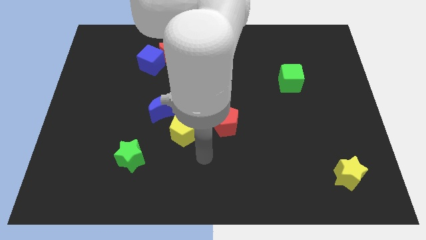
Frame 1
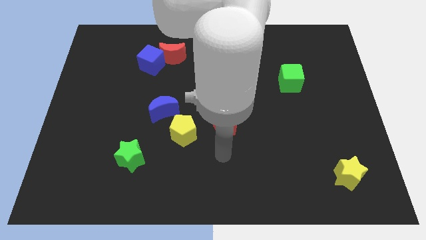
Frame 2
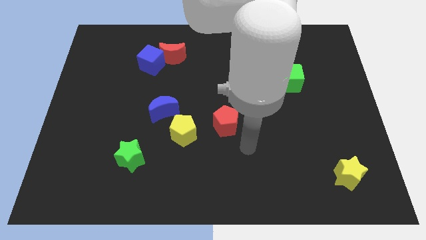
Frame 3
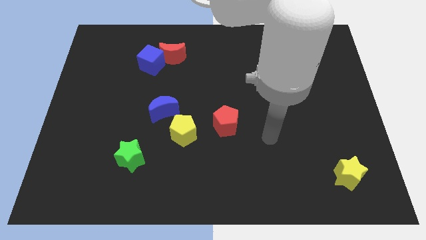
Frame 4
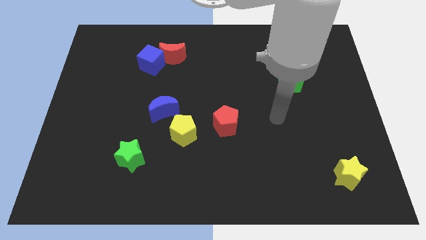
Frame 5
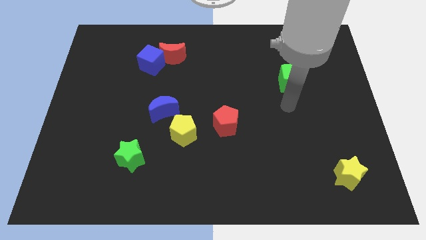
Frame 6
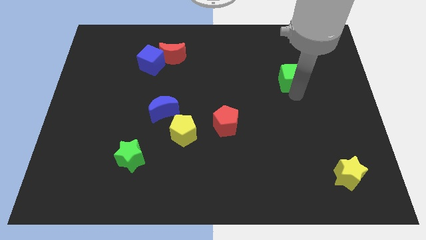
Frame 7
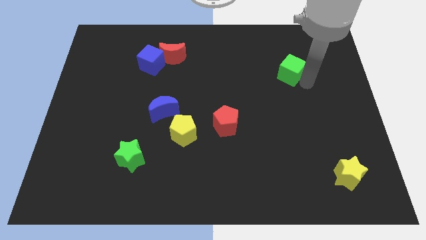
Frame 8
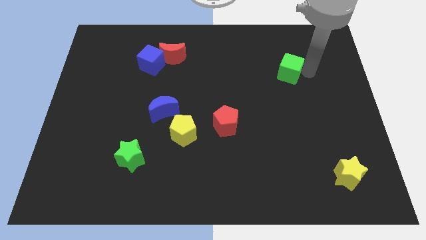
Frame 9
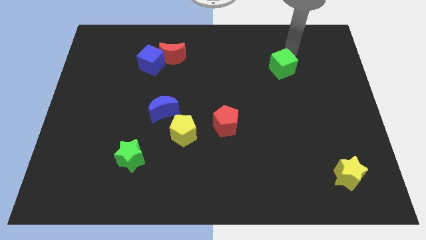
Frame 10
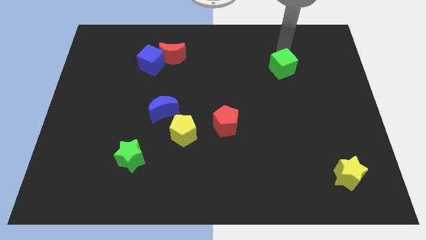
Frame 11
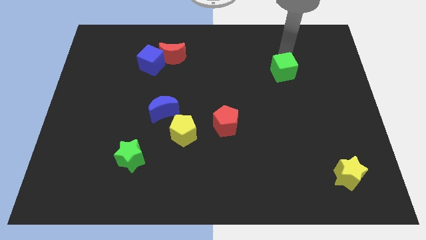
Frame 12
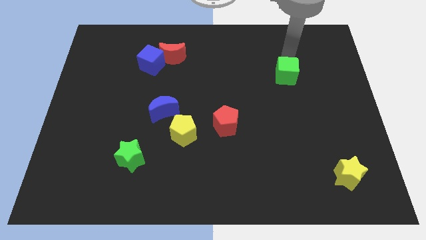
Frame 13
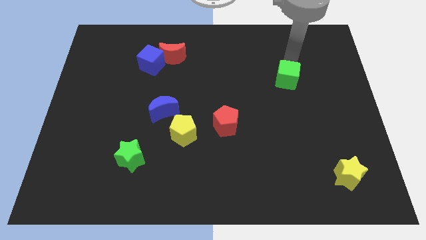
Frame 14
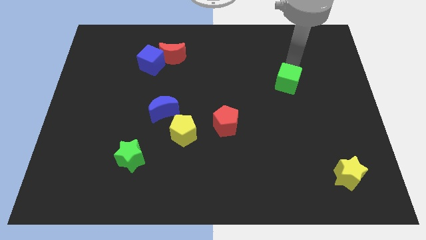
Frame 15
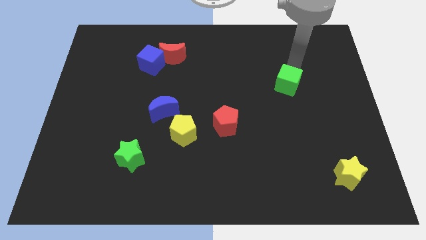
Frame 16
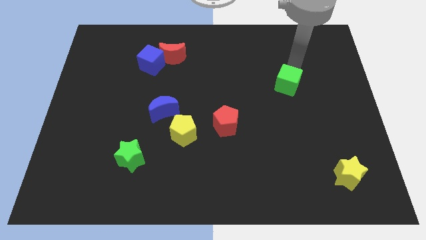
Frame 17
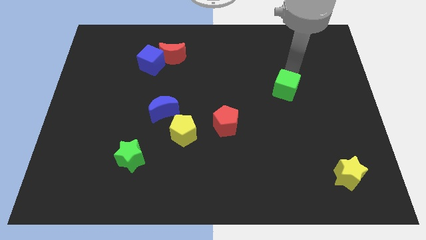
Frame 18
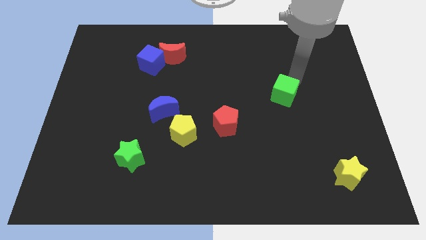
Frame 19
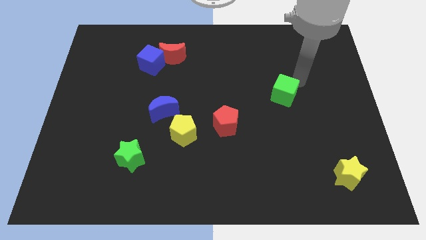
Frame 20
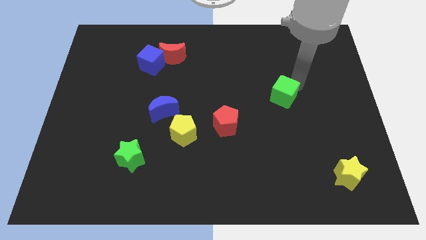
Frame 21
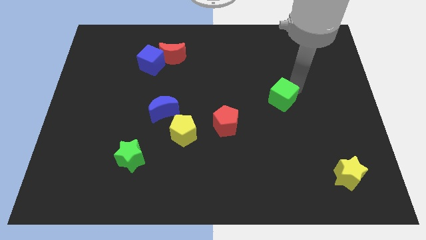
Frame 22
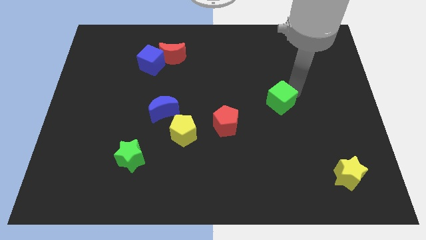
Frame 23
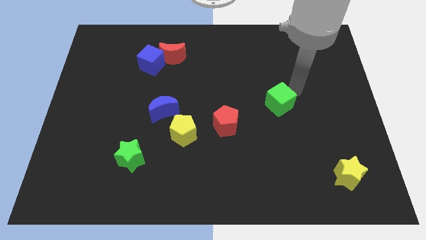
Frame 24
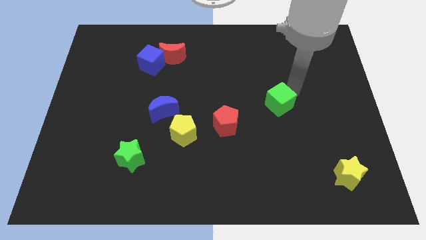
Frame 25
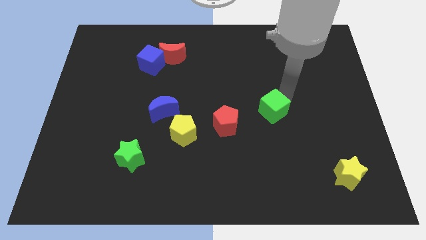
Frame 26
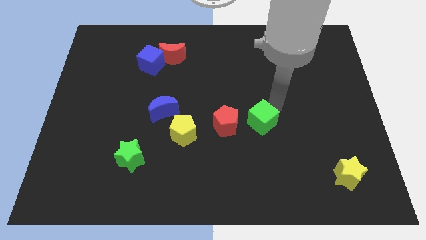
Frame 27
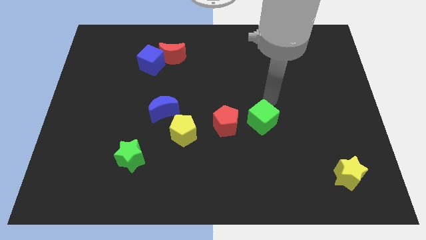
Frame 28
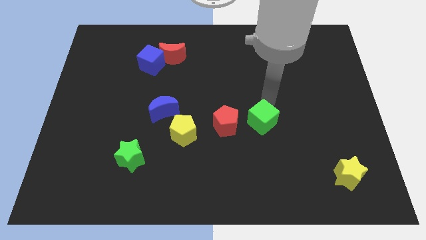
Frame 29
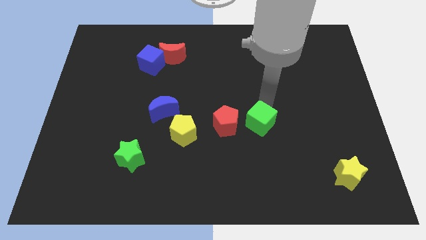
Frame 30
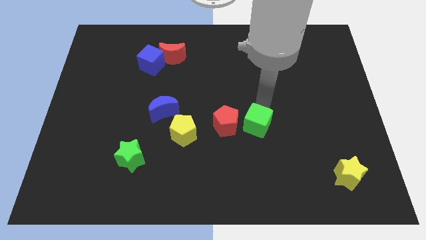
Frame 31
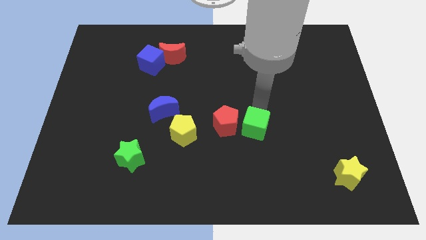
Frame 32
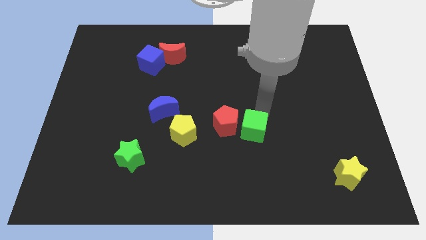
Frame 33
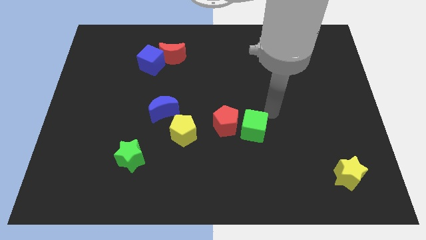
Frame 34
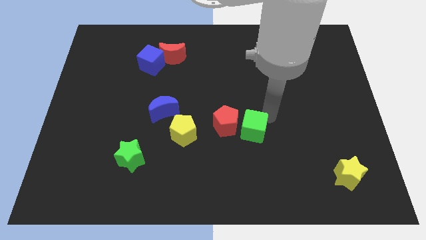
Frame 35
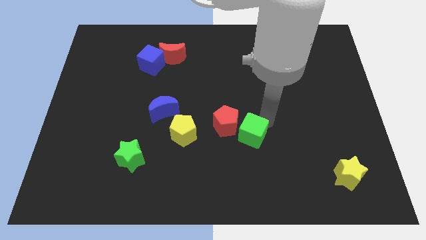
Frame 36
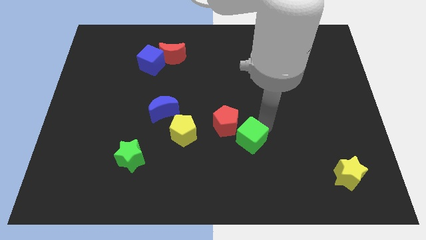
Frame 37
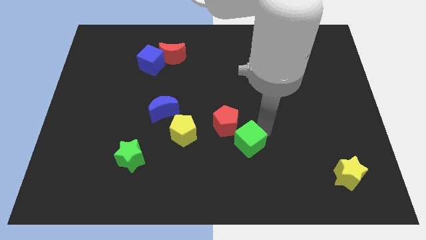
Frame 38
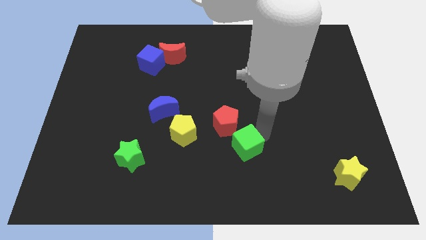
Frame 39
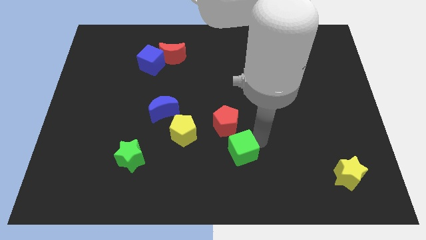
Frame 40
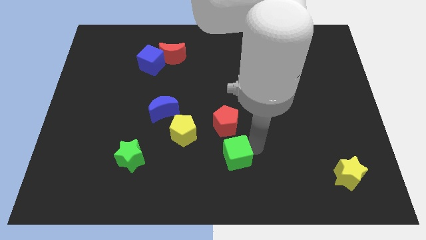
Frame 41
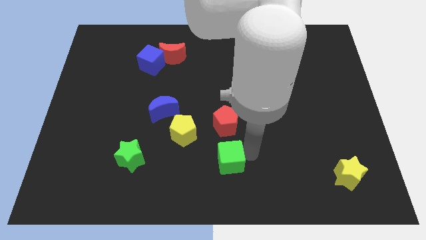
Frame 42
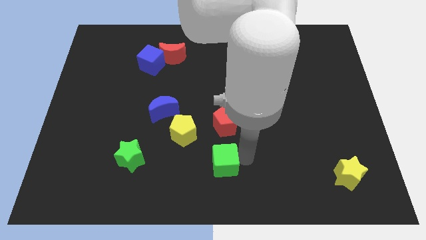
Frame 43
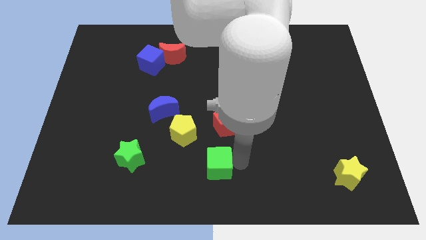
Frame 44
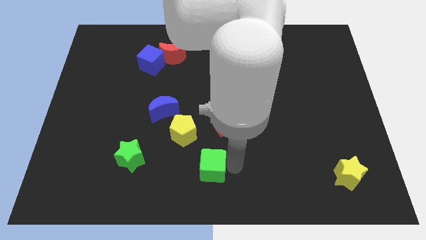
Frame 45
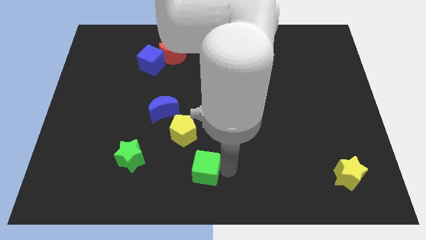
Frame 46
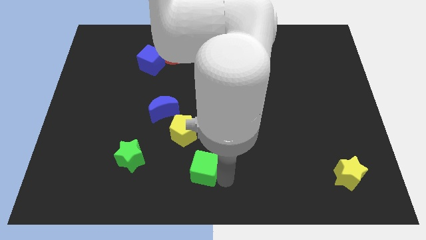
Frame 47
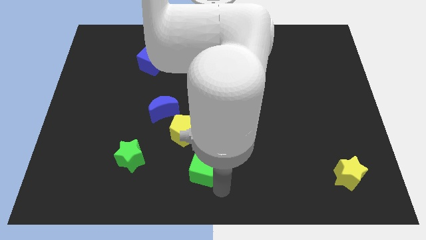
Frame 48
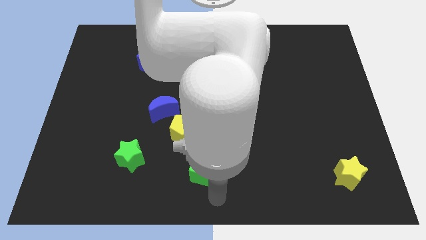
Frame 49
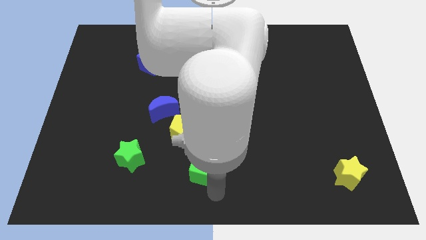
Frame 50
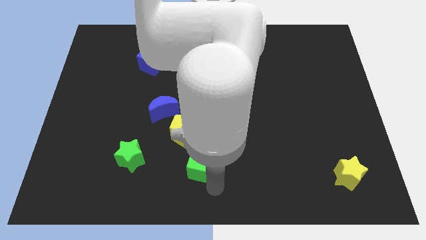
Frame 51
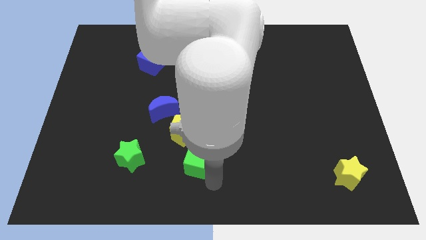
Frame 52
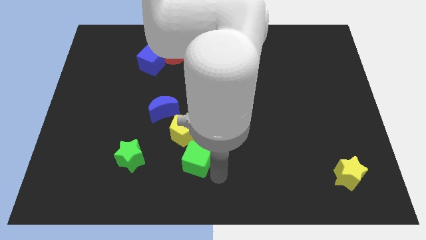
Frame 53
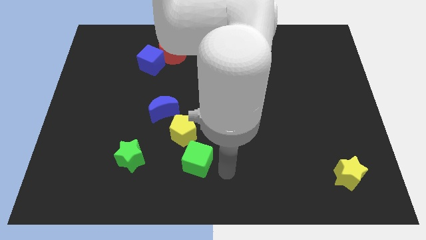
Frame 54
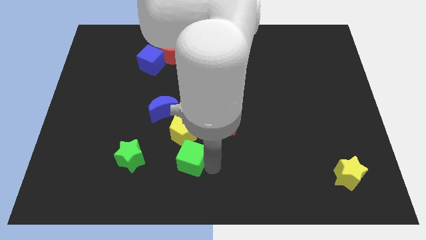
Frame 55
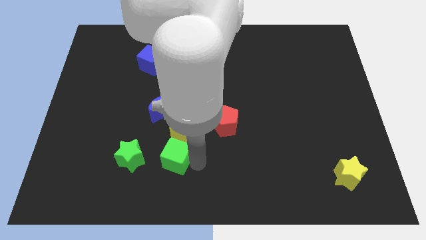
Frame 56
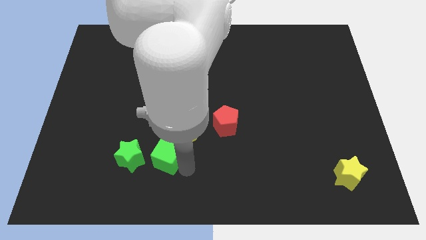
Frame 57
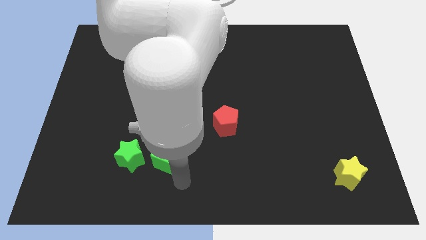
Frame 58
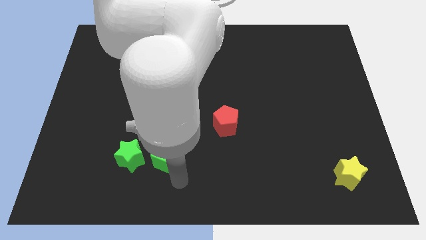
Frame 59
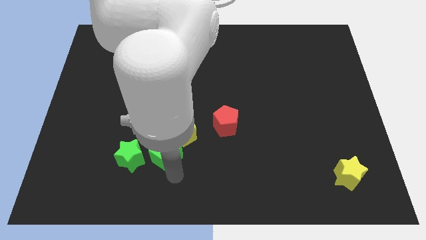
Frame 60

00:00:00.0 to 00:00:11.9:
put the green cube to the top right side of the green star
